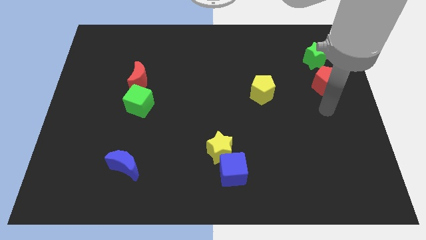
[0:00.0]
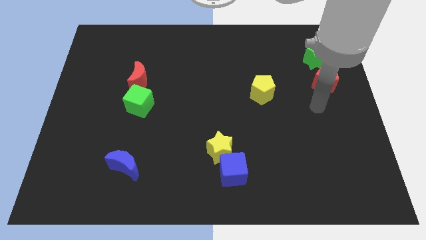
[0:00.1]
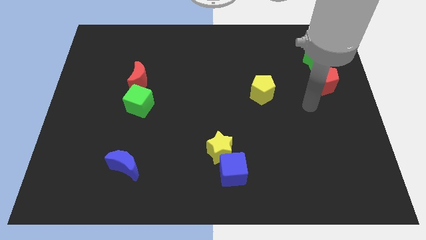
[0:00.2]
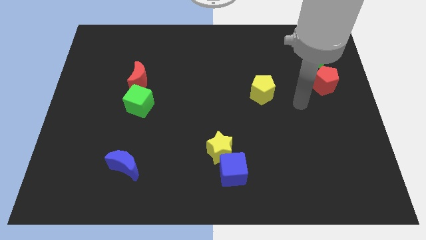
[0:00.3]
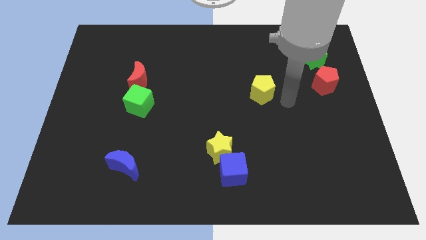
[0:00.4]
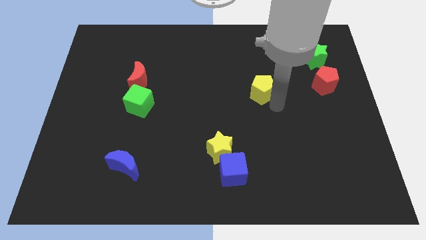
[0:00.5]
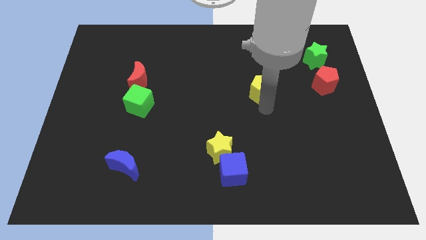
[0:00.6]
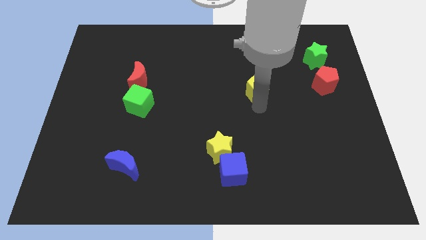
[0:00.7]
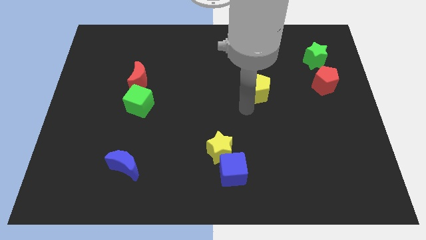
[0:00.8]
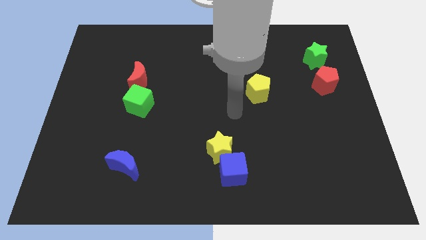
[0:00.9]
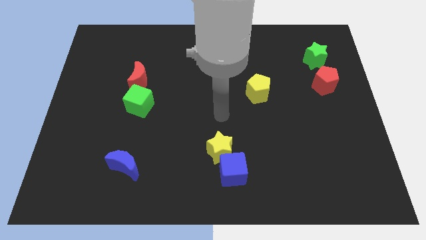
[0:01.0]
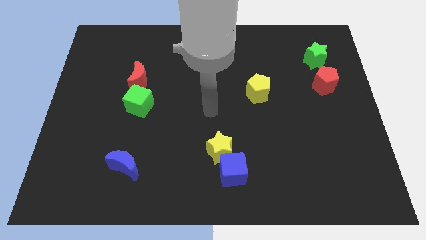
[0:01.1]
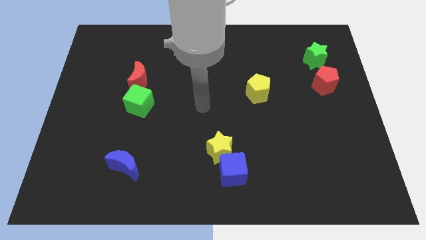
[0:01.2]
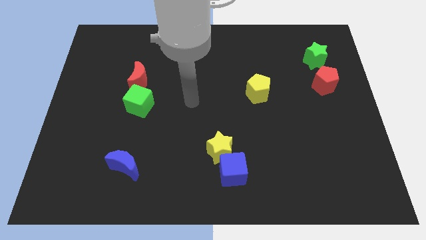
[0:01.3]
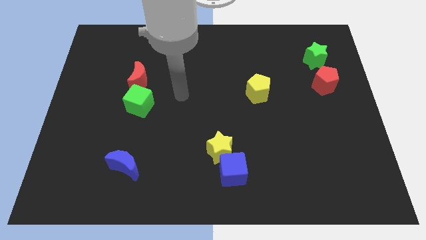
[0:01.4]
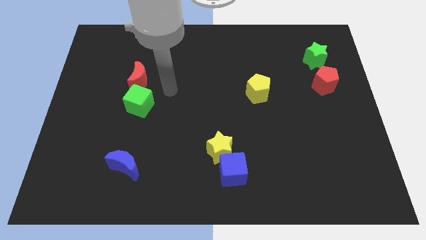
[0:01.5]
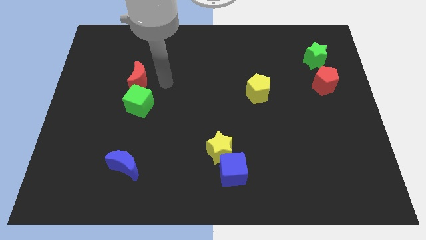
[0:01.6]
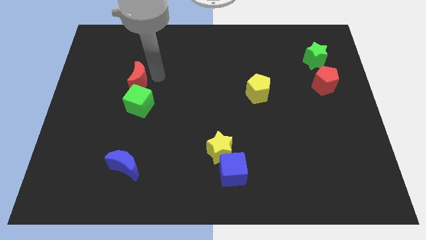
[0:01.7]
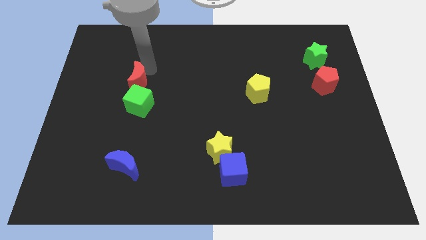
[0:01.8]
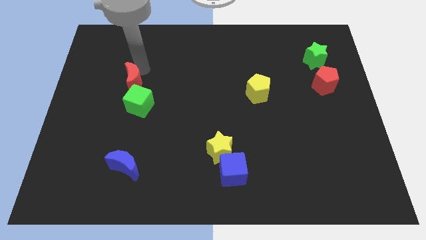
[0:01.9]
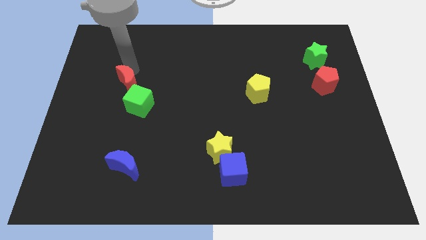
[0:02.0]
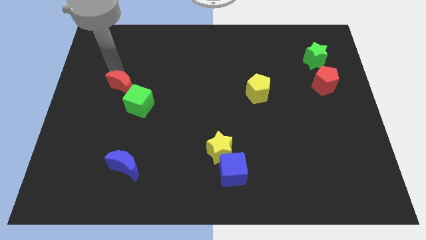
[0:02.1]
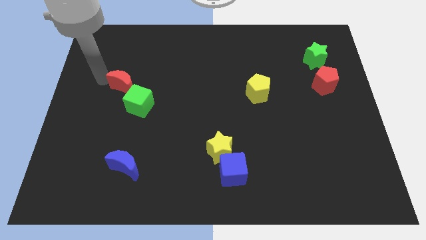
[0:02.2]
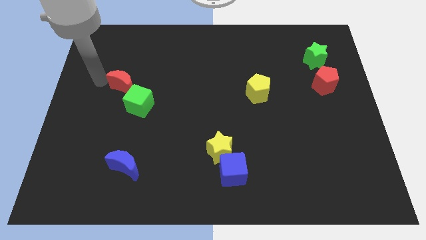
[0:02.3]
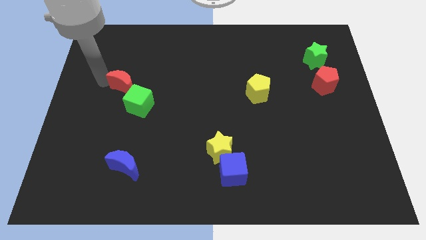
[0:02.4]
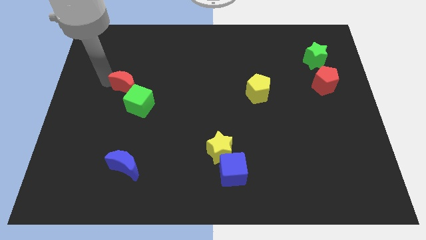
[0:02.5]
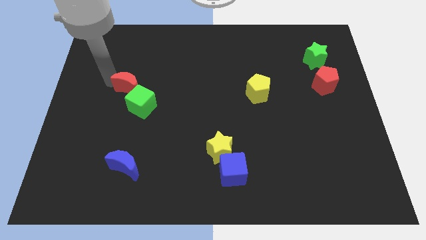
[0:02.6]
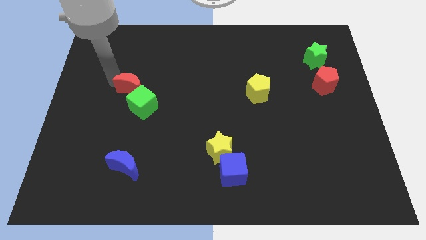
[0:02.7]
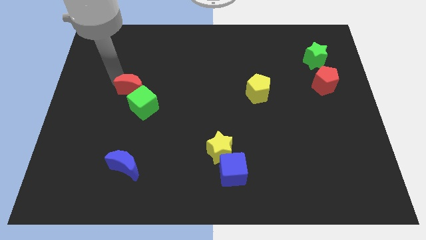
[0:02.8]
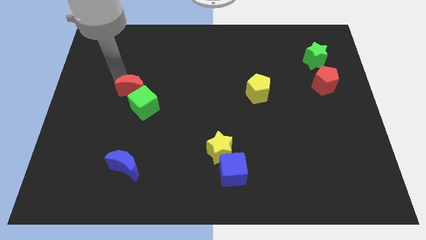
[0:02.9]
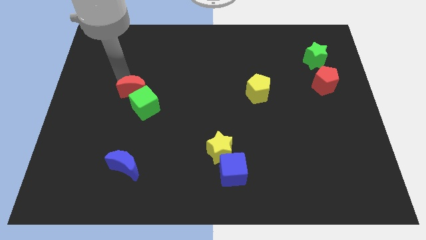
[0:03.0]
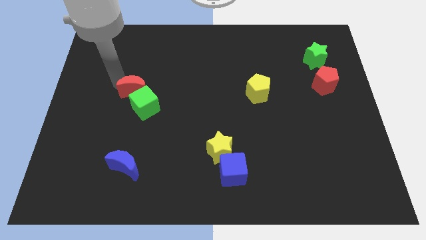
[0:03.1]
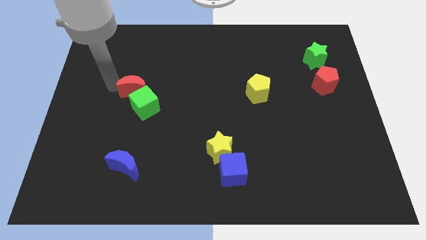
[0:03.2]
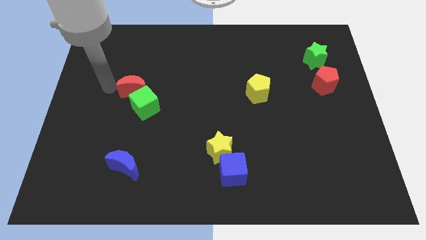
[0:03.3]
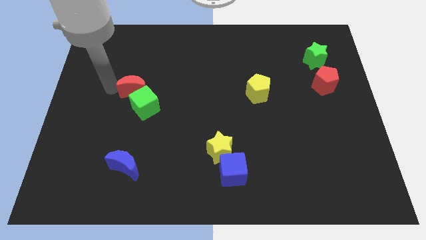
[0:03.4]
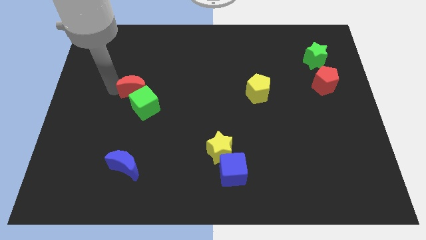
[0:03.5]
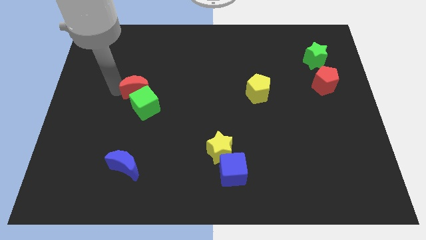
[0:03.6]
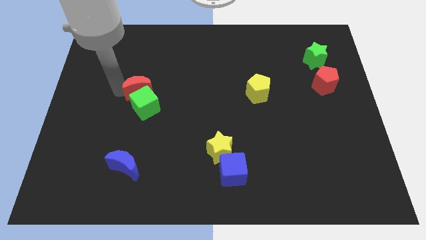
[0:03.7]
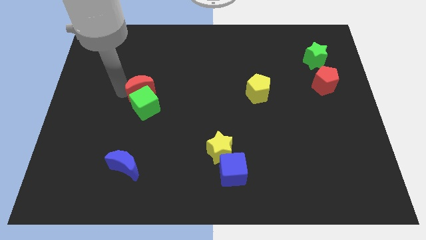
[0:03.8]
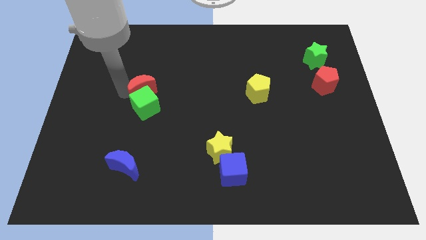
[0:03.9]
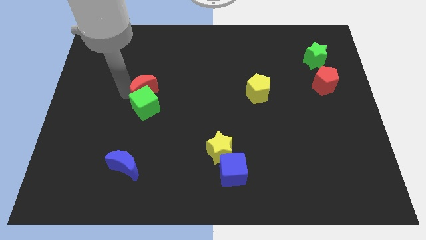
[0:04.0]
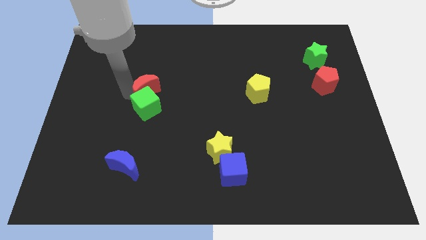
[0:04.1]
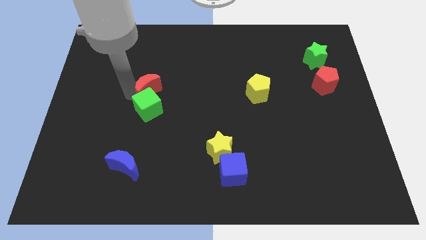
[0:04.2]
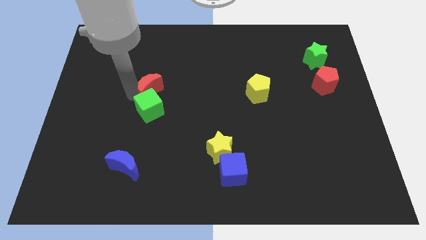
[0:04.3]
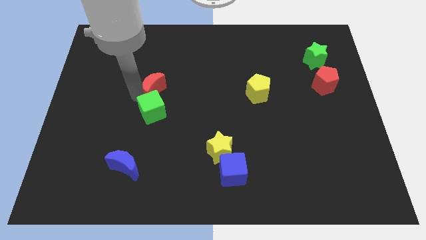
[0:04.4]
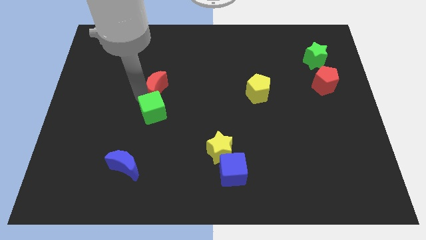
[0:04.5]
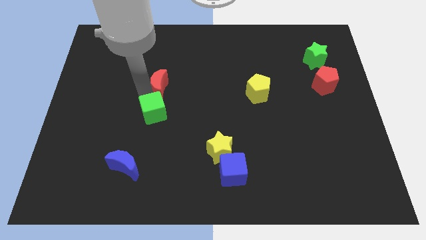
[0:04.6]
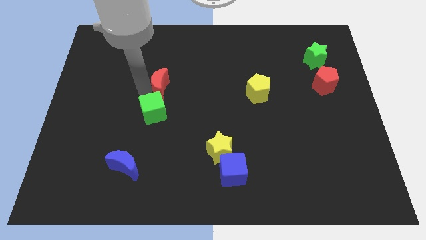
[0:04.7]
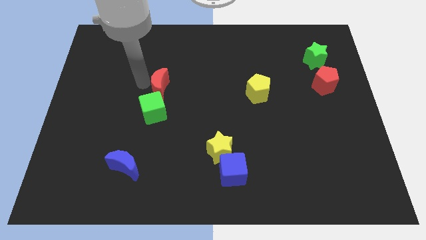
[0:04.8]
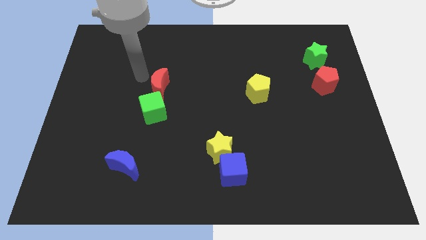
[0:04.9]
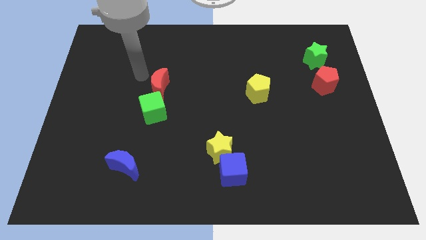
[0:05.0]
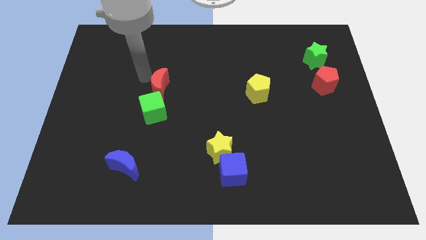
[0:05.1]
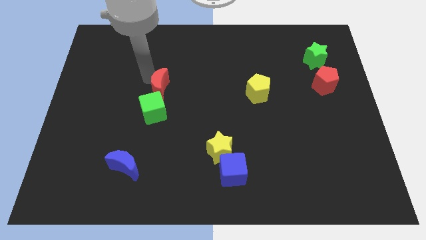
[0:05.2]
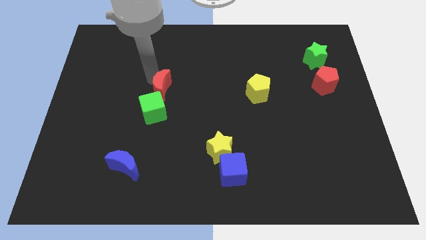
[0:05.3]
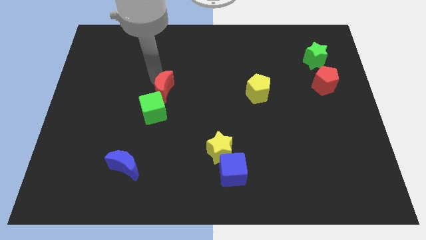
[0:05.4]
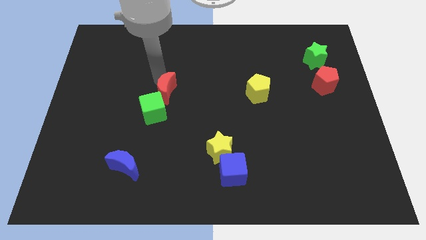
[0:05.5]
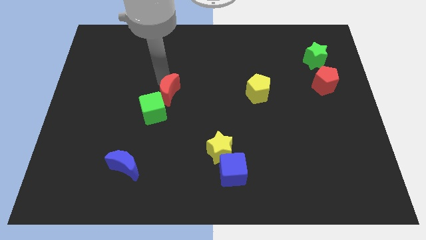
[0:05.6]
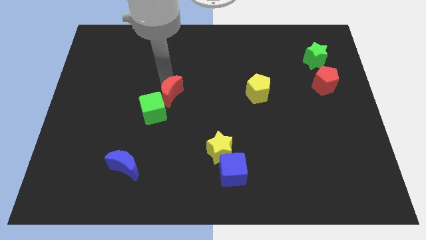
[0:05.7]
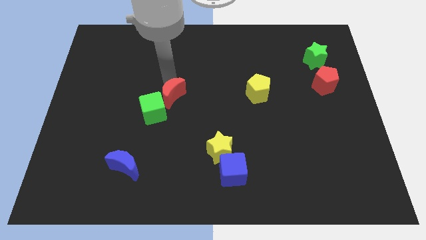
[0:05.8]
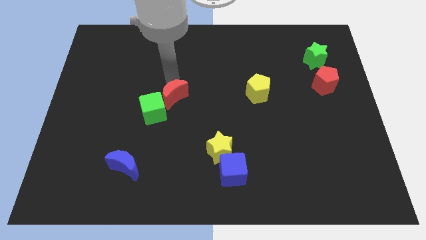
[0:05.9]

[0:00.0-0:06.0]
move the red moon to the right side of the green cube

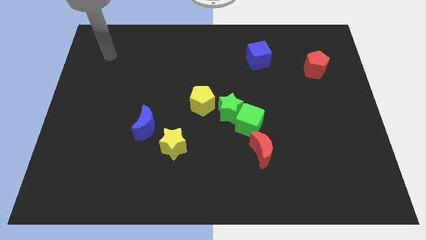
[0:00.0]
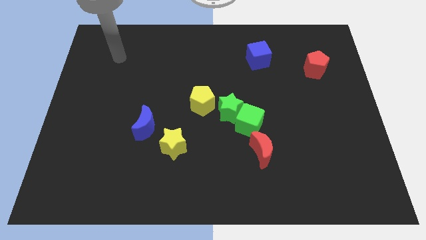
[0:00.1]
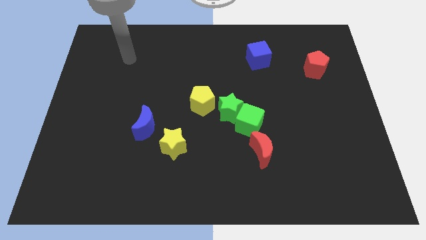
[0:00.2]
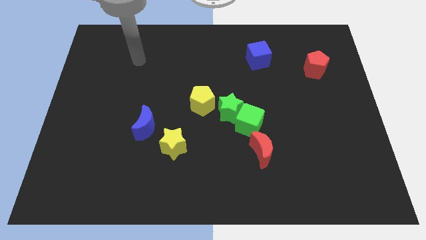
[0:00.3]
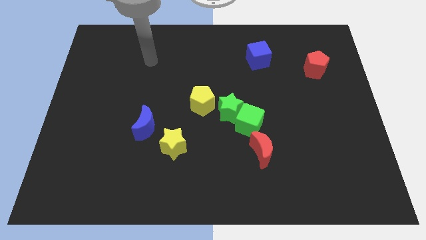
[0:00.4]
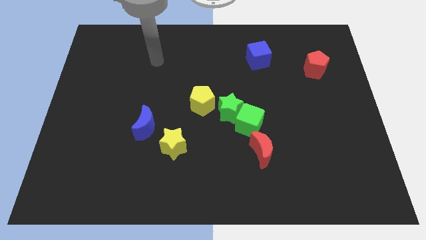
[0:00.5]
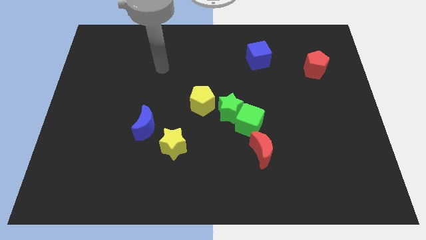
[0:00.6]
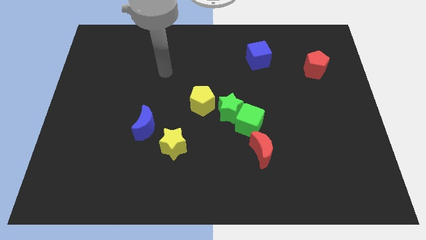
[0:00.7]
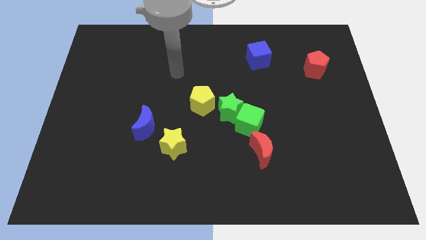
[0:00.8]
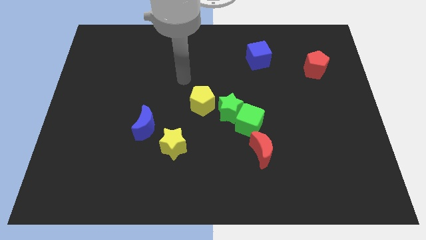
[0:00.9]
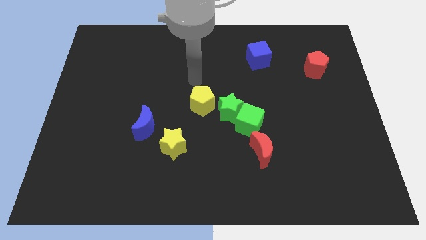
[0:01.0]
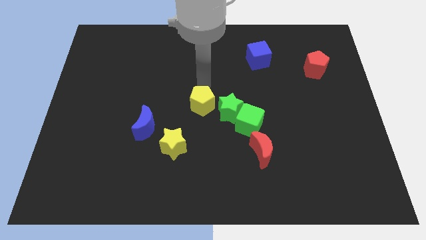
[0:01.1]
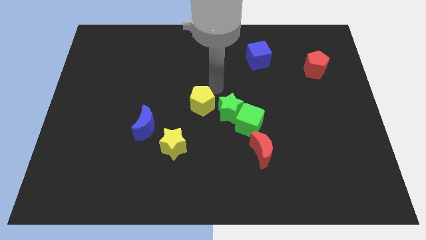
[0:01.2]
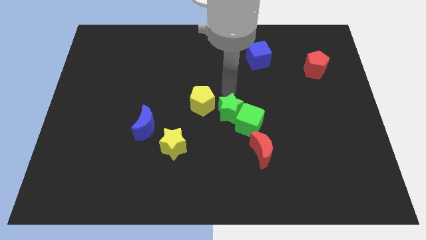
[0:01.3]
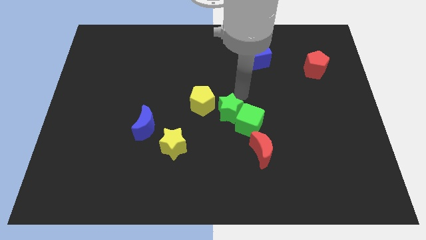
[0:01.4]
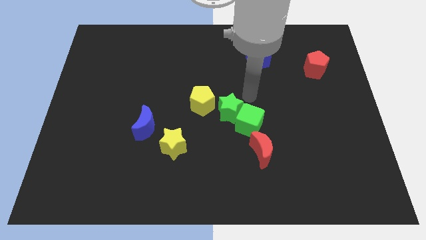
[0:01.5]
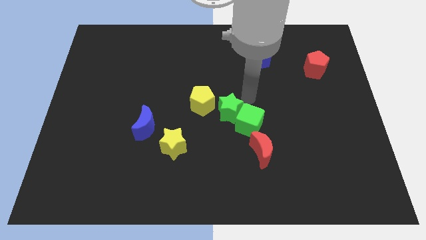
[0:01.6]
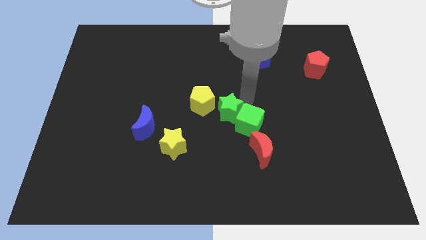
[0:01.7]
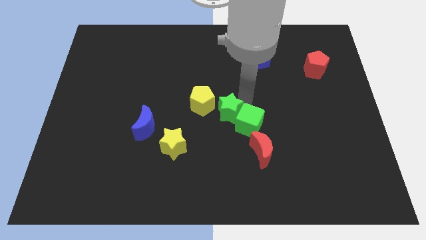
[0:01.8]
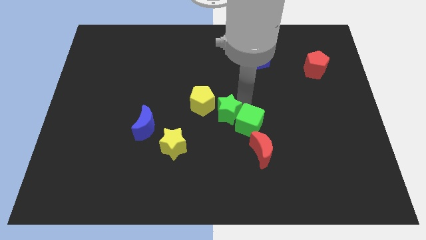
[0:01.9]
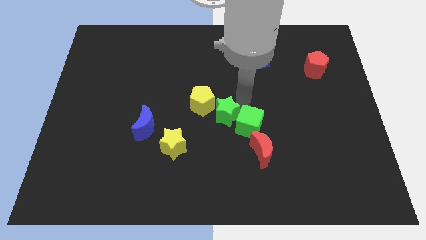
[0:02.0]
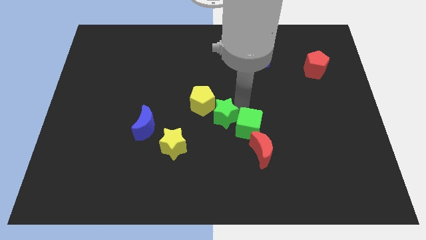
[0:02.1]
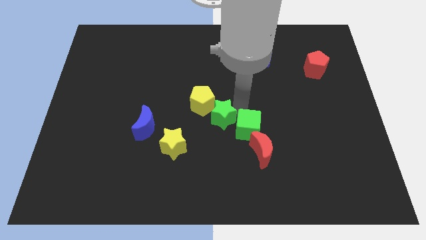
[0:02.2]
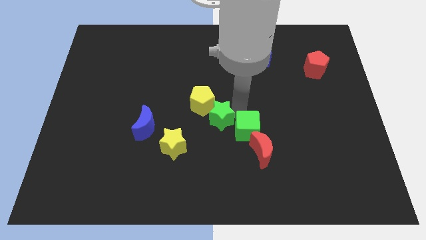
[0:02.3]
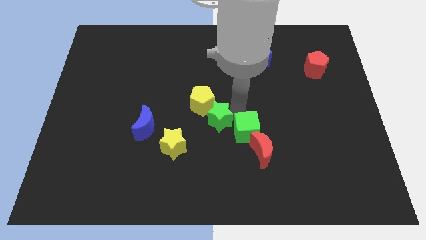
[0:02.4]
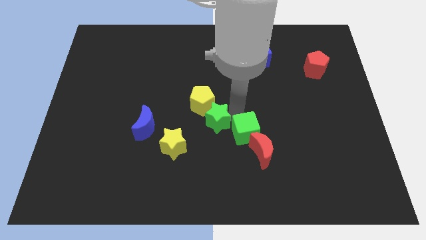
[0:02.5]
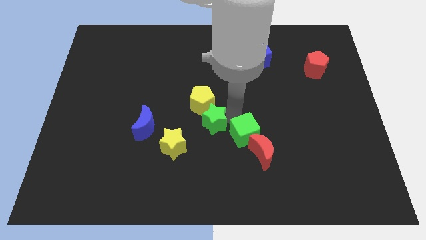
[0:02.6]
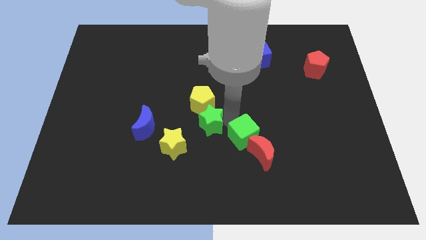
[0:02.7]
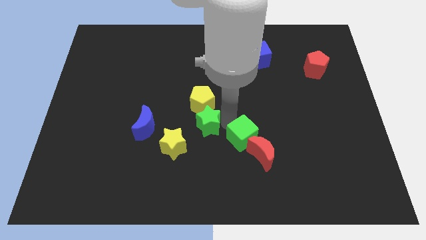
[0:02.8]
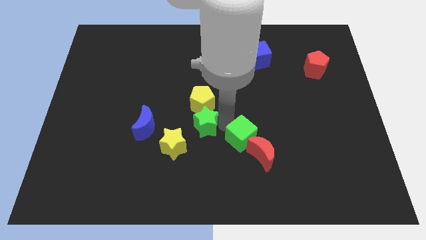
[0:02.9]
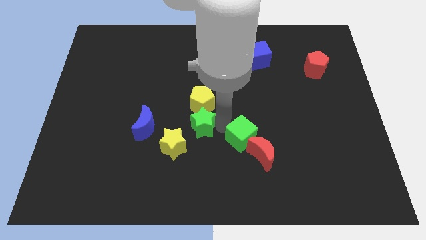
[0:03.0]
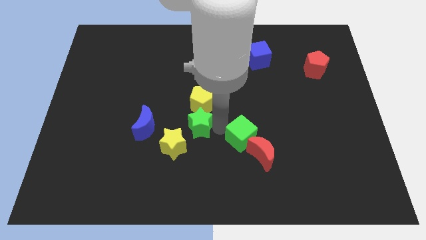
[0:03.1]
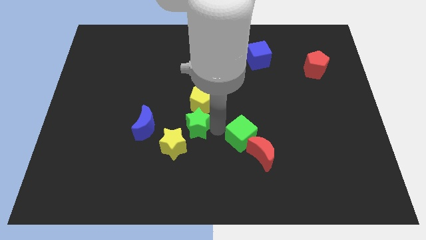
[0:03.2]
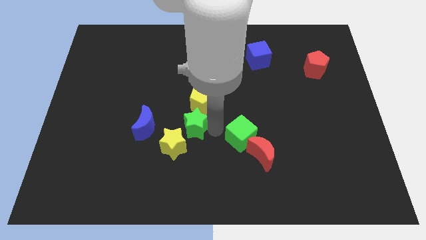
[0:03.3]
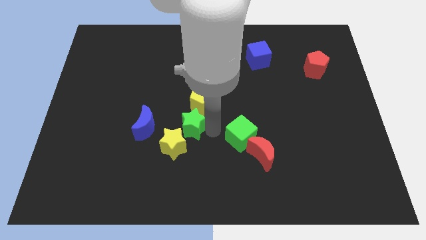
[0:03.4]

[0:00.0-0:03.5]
move the green star to the top of the yellow star
